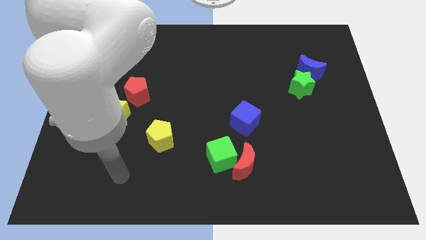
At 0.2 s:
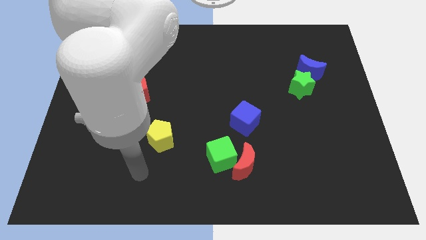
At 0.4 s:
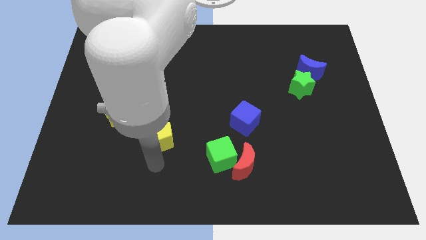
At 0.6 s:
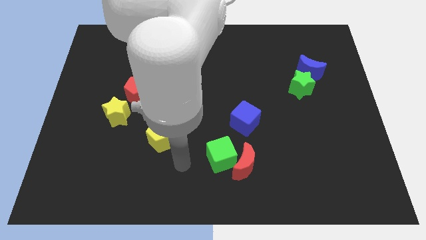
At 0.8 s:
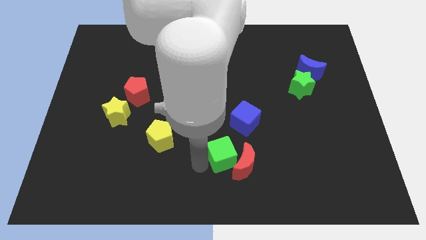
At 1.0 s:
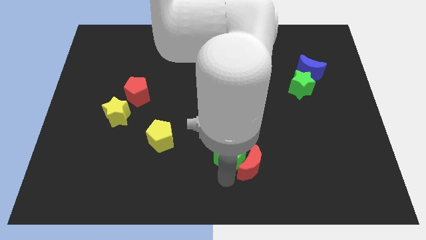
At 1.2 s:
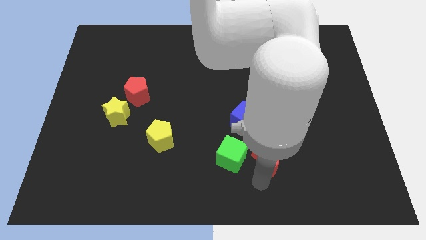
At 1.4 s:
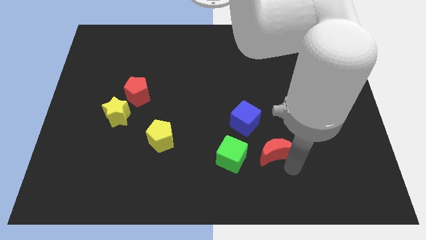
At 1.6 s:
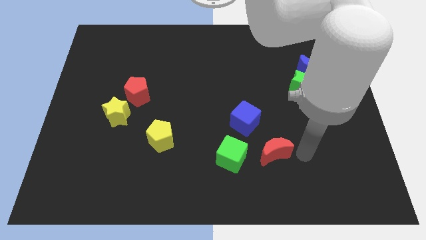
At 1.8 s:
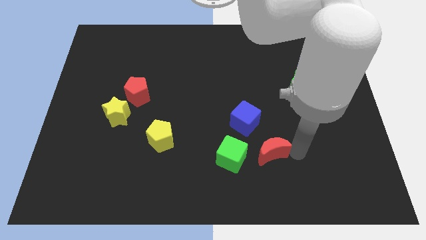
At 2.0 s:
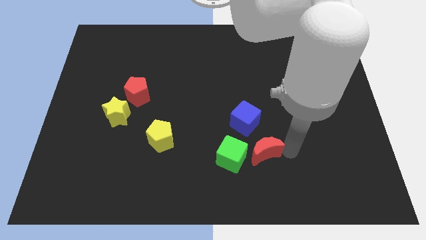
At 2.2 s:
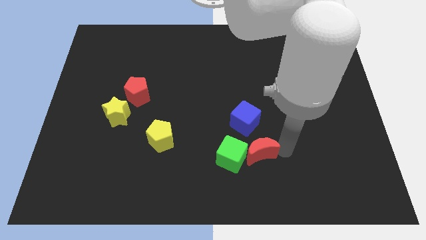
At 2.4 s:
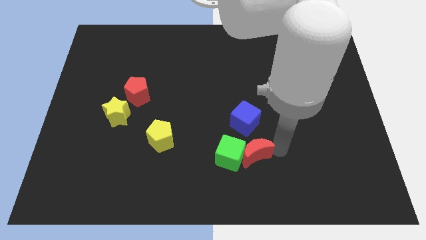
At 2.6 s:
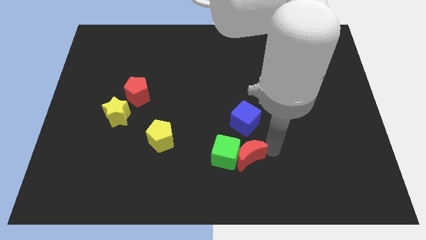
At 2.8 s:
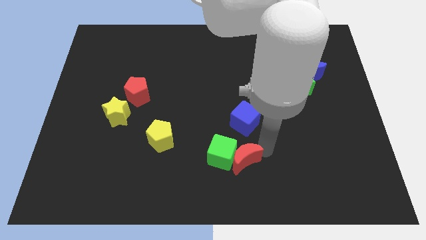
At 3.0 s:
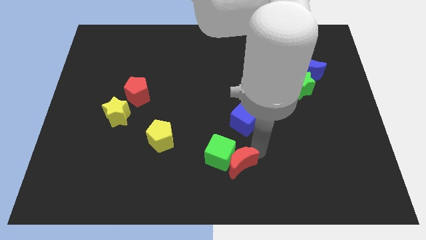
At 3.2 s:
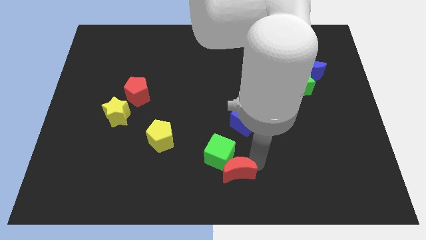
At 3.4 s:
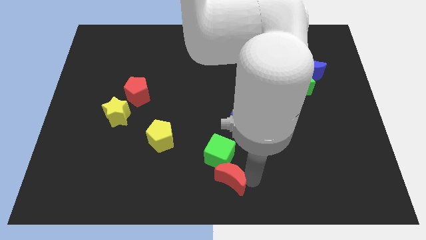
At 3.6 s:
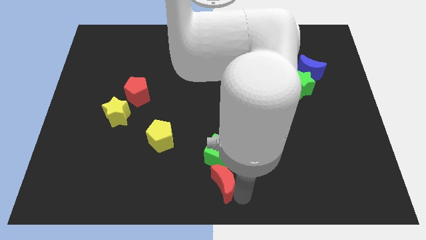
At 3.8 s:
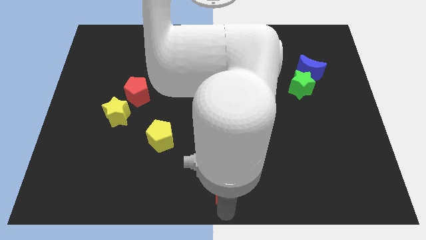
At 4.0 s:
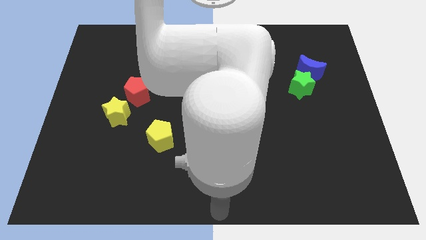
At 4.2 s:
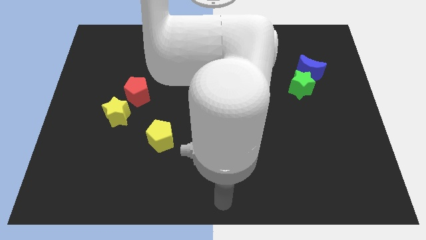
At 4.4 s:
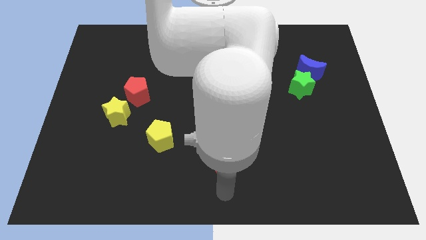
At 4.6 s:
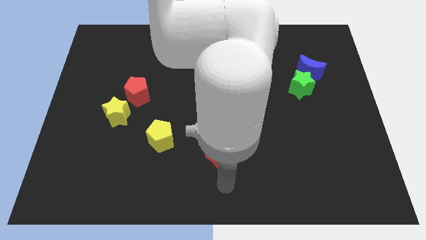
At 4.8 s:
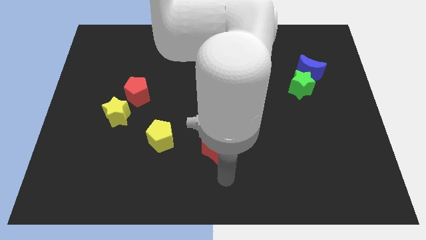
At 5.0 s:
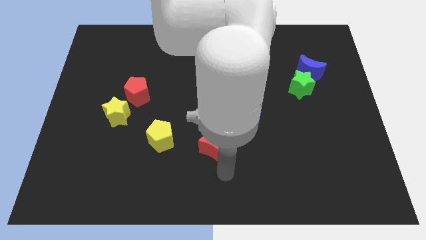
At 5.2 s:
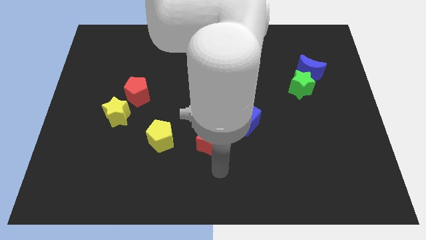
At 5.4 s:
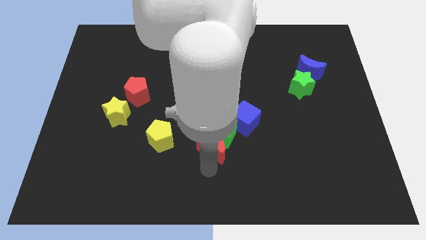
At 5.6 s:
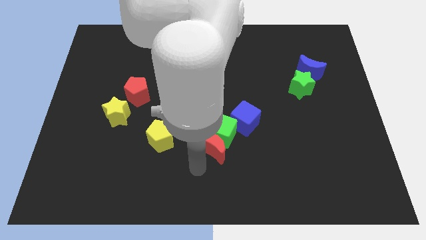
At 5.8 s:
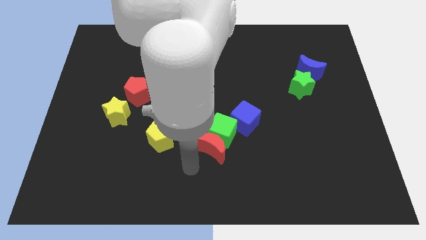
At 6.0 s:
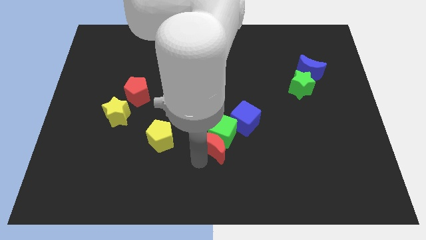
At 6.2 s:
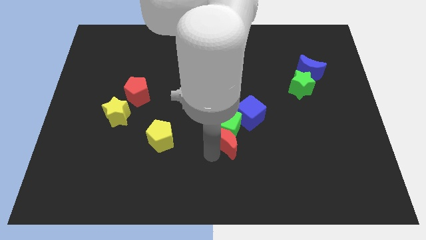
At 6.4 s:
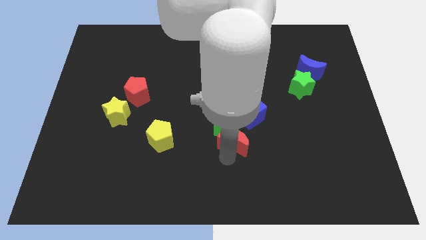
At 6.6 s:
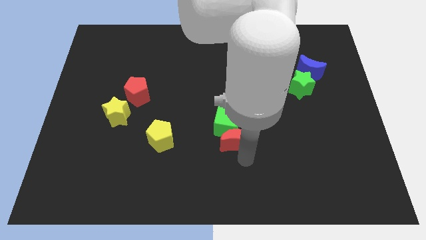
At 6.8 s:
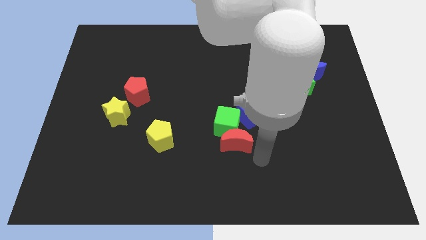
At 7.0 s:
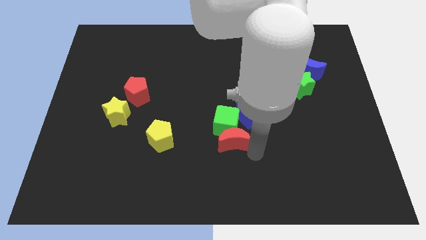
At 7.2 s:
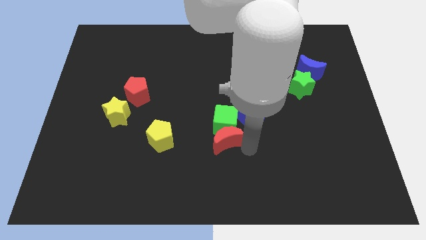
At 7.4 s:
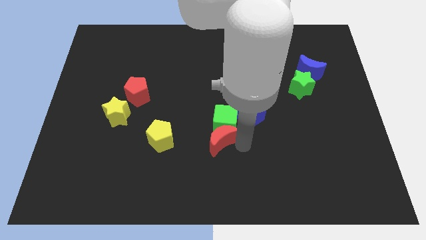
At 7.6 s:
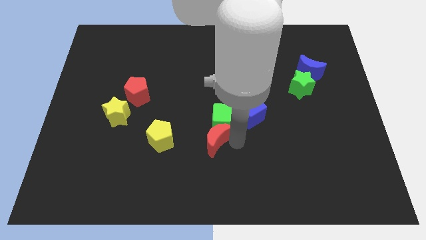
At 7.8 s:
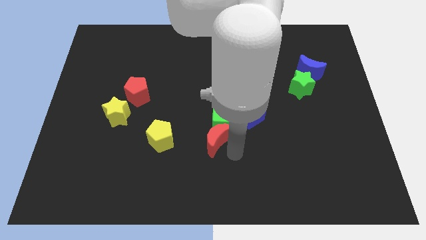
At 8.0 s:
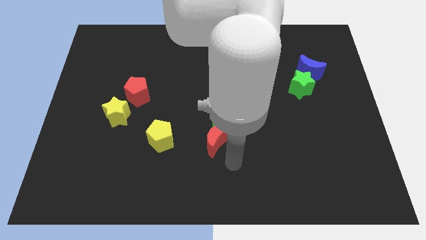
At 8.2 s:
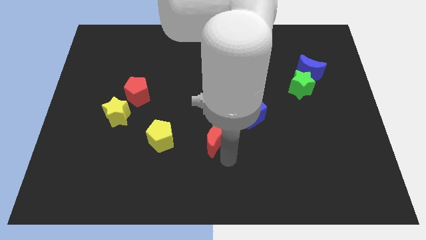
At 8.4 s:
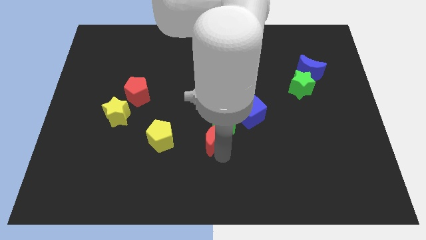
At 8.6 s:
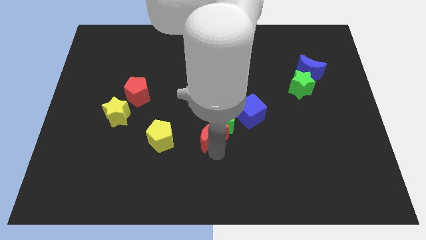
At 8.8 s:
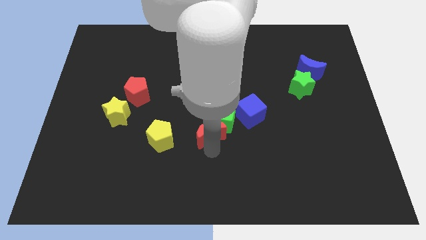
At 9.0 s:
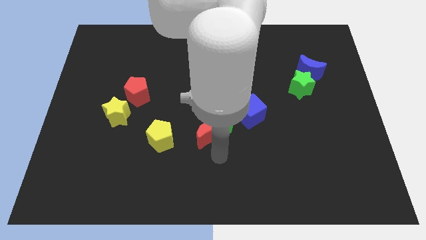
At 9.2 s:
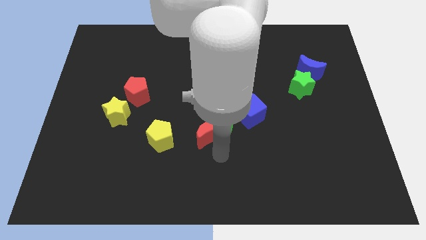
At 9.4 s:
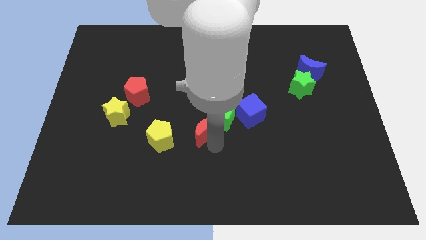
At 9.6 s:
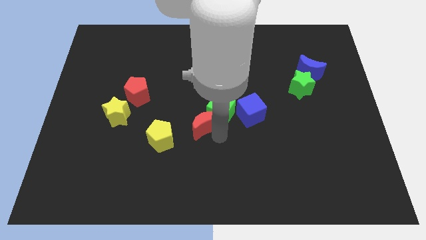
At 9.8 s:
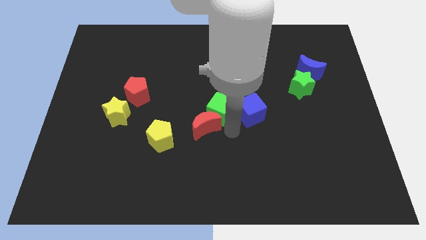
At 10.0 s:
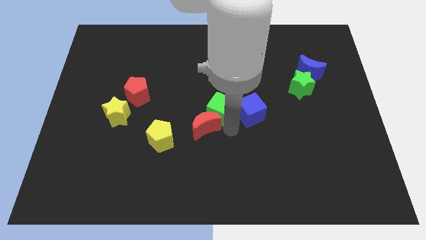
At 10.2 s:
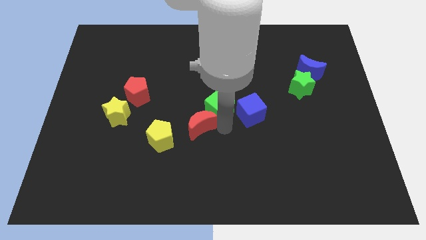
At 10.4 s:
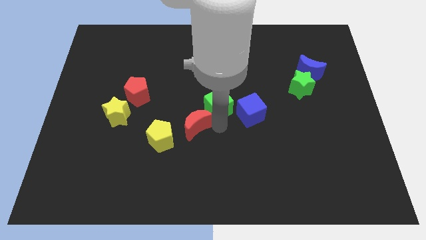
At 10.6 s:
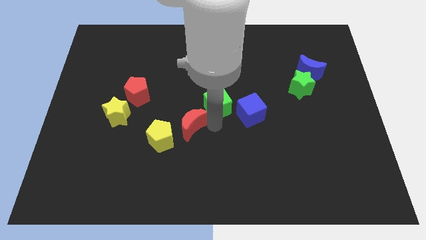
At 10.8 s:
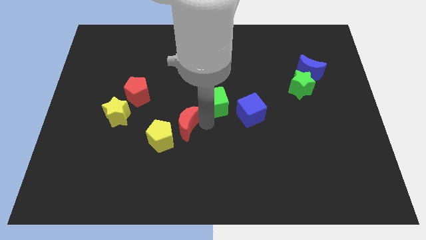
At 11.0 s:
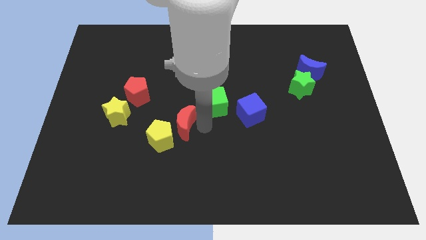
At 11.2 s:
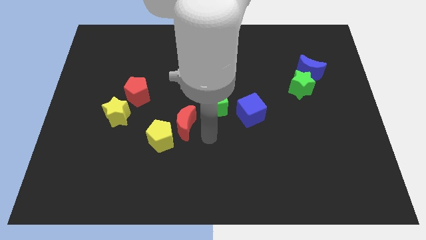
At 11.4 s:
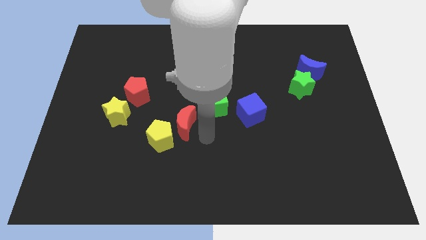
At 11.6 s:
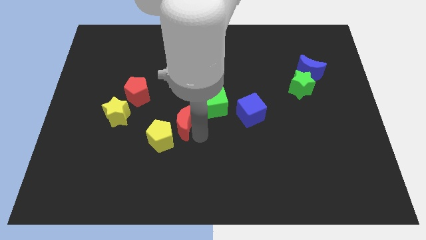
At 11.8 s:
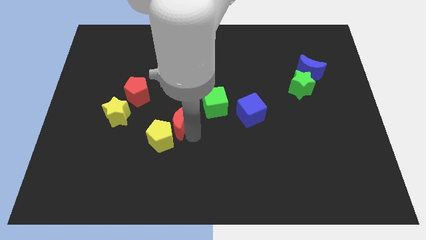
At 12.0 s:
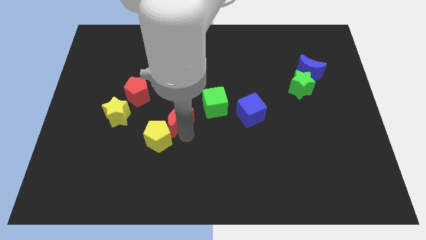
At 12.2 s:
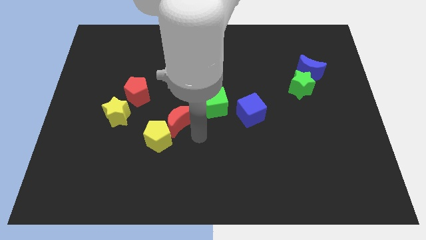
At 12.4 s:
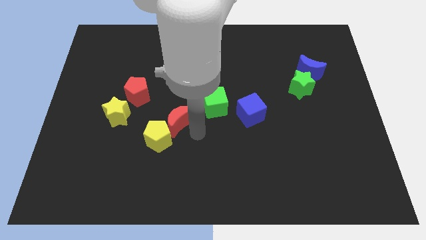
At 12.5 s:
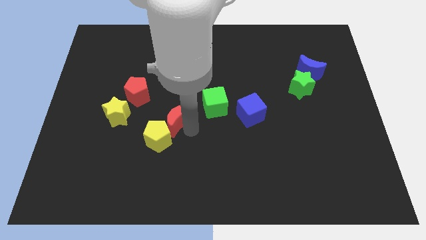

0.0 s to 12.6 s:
slide the red moon diagonally down and to the right of the red pentagon

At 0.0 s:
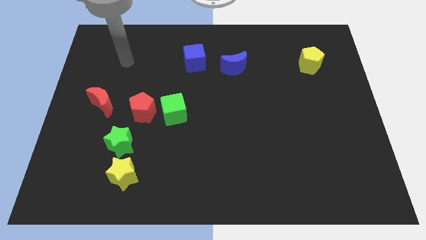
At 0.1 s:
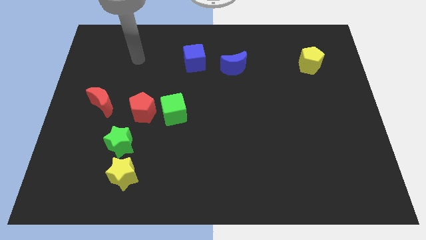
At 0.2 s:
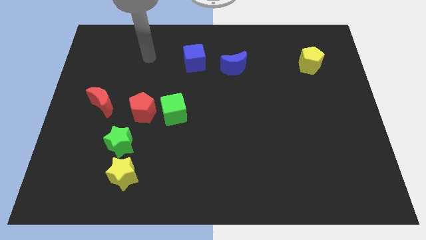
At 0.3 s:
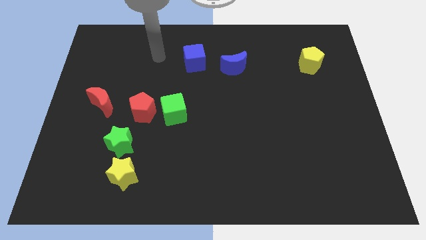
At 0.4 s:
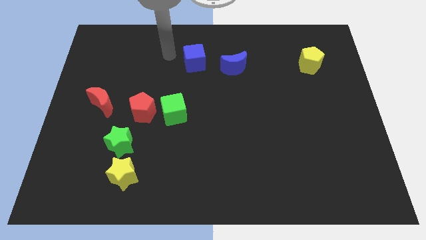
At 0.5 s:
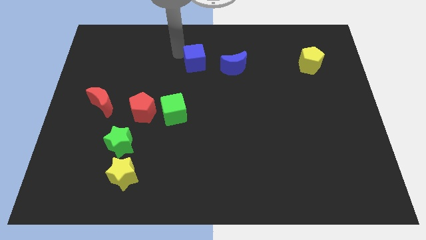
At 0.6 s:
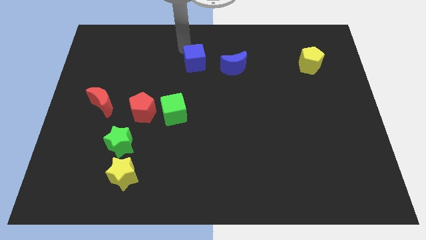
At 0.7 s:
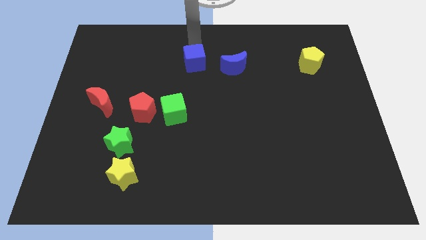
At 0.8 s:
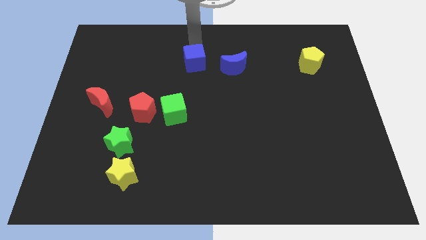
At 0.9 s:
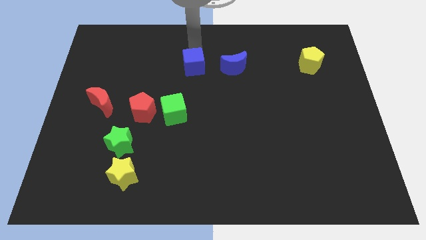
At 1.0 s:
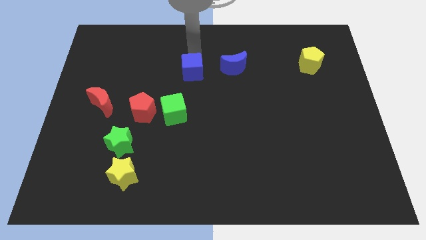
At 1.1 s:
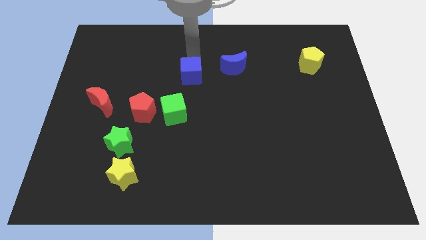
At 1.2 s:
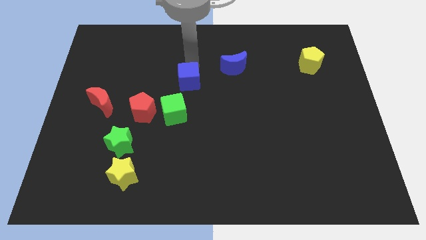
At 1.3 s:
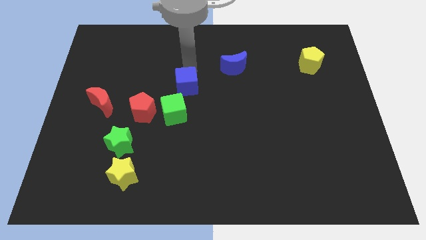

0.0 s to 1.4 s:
move the blue cube to the top right of the green cube

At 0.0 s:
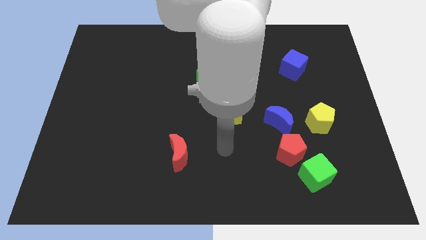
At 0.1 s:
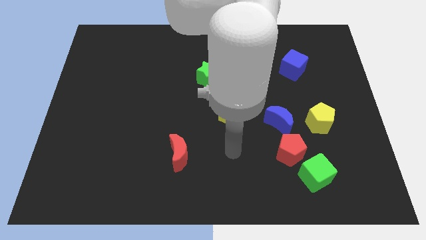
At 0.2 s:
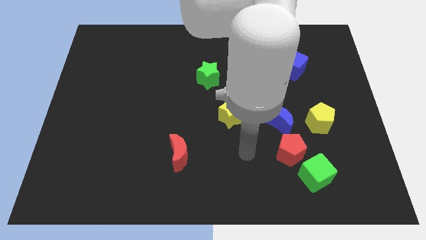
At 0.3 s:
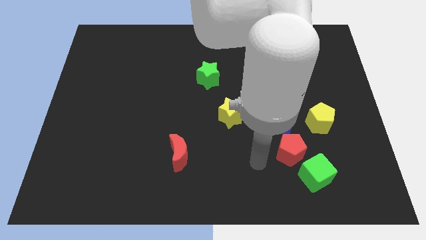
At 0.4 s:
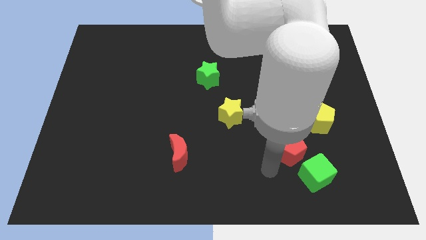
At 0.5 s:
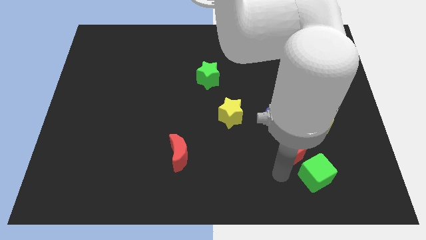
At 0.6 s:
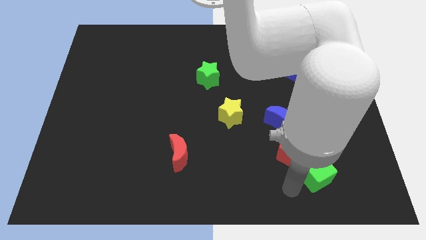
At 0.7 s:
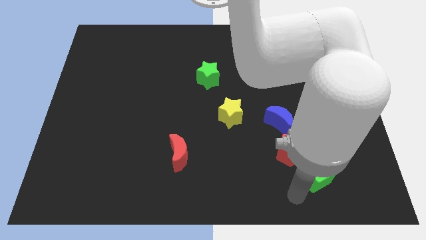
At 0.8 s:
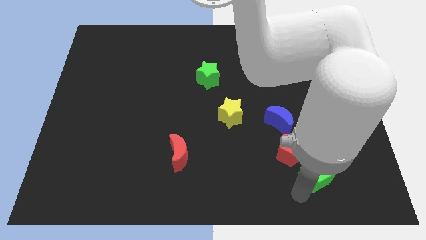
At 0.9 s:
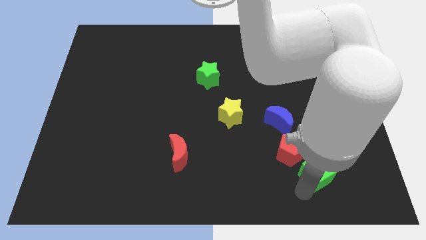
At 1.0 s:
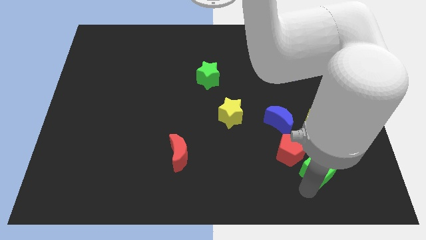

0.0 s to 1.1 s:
move the green cube to the right of the red pentagon
